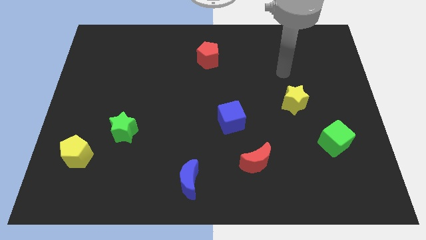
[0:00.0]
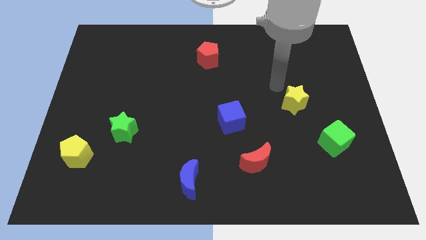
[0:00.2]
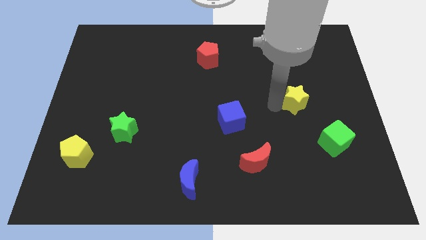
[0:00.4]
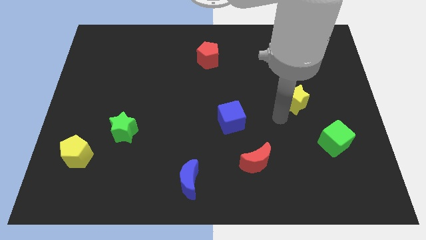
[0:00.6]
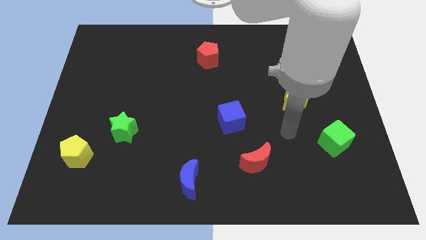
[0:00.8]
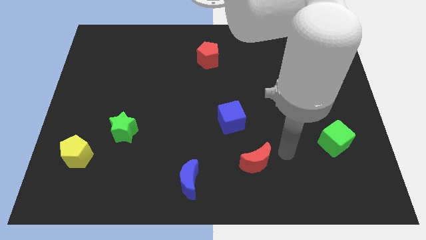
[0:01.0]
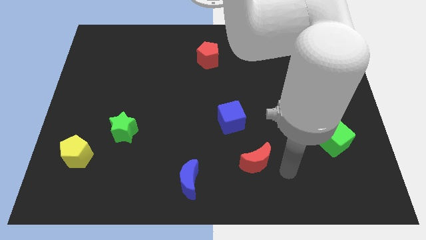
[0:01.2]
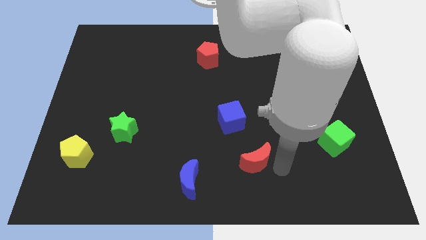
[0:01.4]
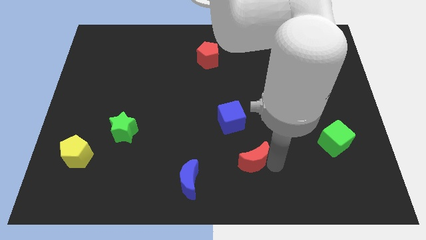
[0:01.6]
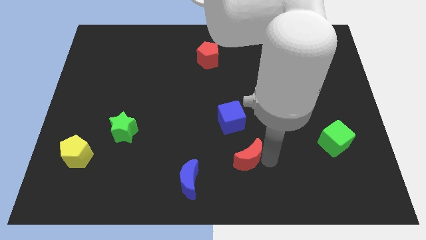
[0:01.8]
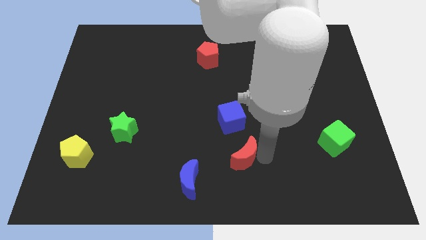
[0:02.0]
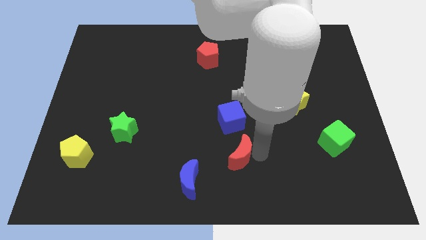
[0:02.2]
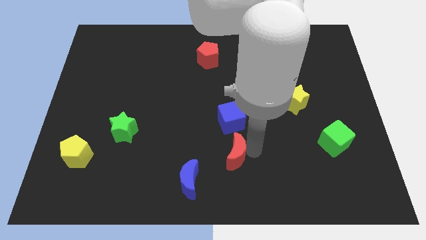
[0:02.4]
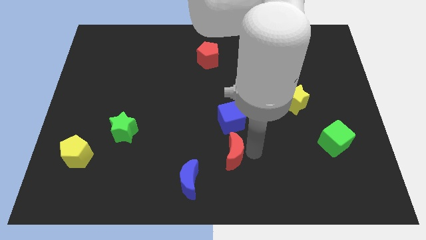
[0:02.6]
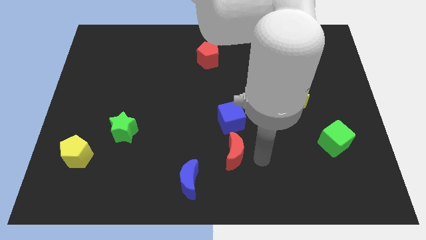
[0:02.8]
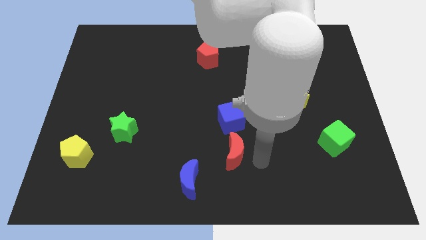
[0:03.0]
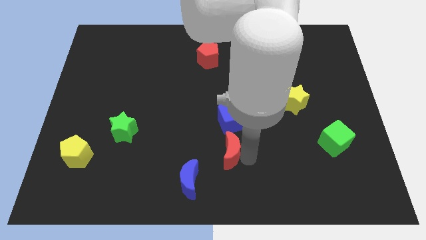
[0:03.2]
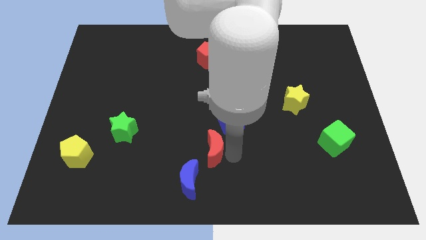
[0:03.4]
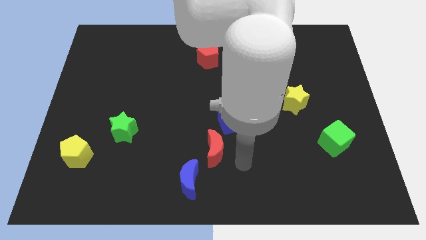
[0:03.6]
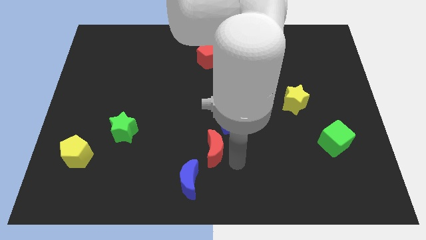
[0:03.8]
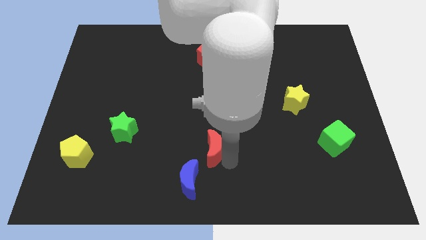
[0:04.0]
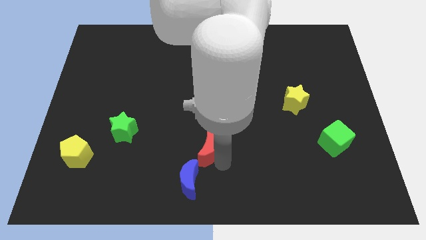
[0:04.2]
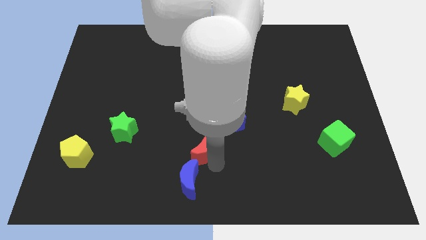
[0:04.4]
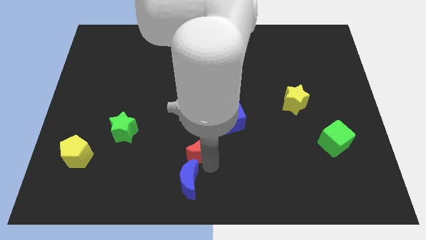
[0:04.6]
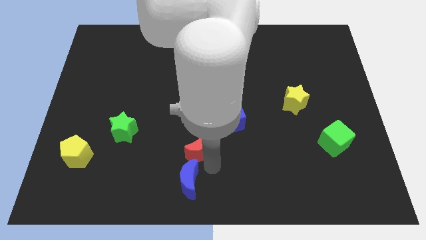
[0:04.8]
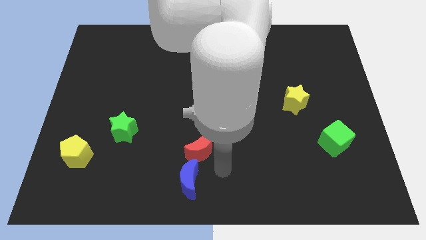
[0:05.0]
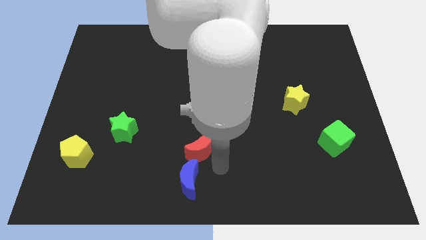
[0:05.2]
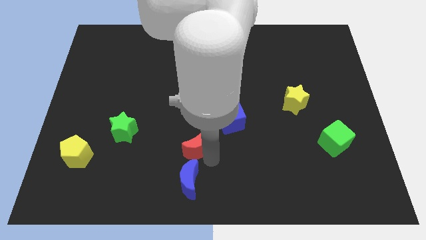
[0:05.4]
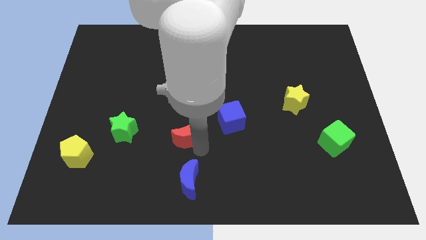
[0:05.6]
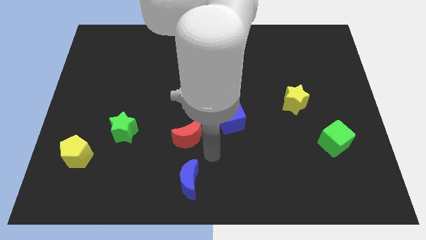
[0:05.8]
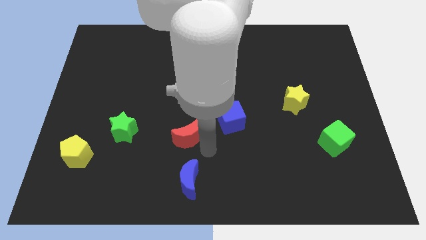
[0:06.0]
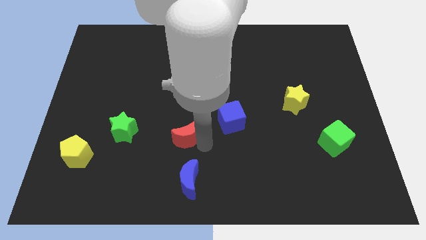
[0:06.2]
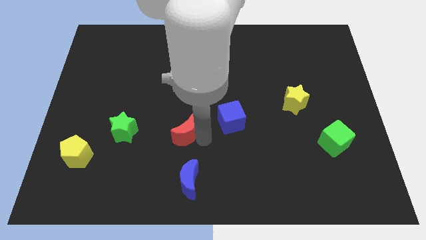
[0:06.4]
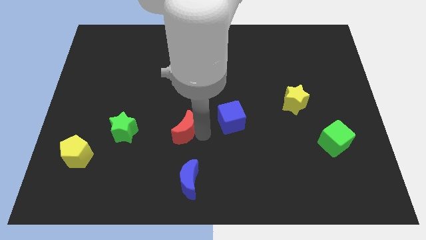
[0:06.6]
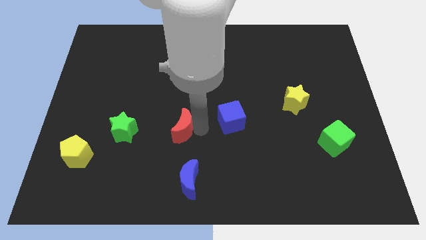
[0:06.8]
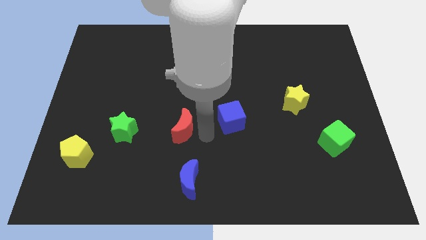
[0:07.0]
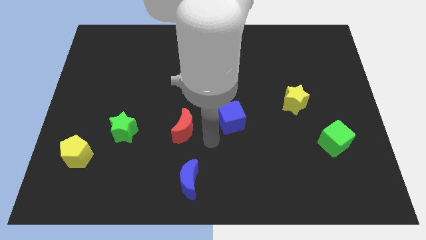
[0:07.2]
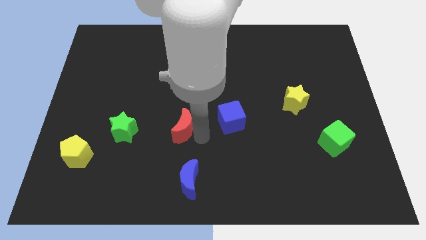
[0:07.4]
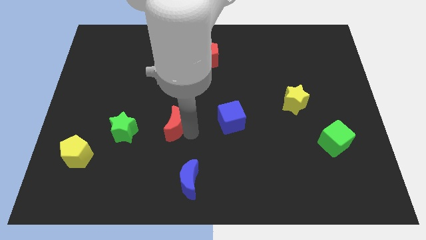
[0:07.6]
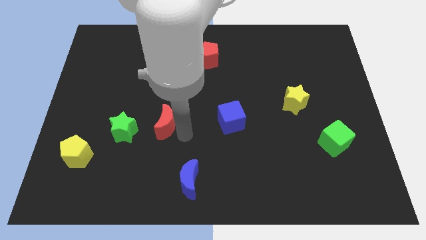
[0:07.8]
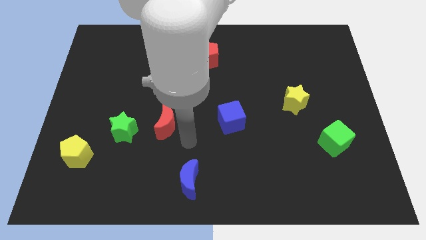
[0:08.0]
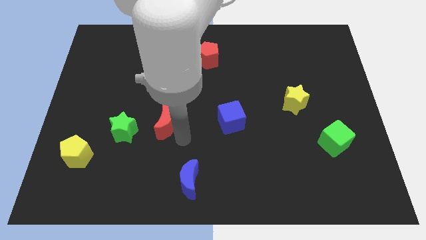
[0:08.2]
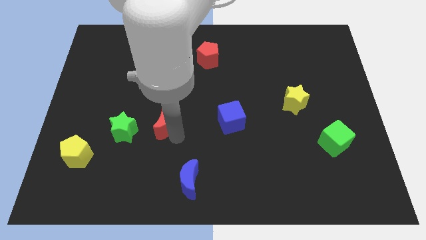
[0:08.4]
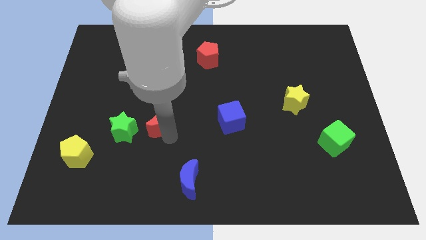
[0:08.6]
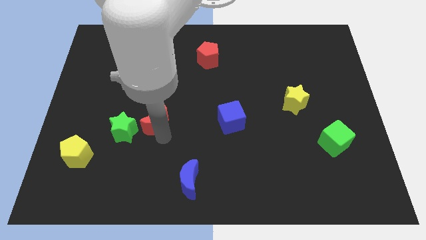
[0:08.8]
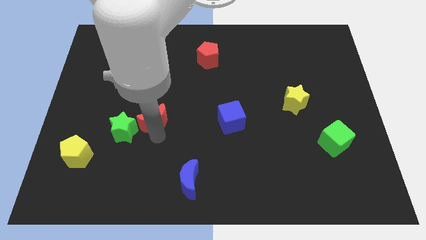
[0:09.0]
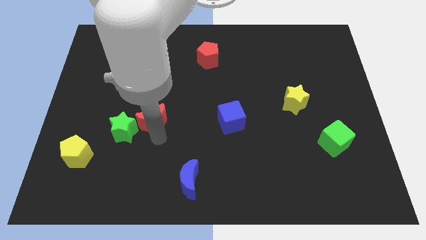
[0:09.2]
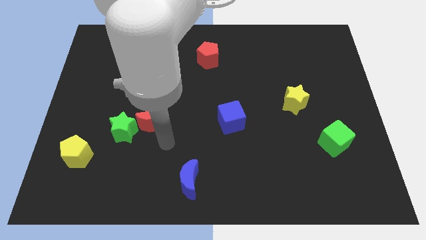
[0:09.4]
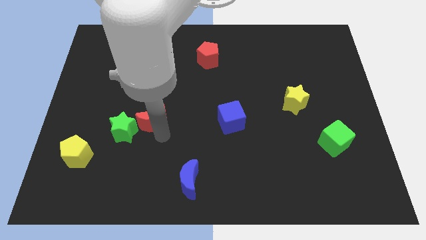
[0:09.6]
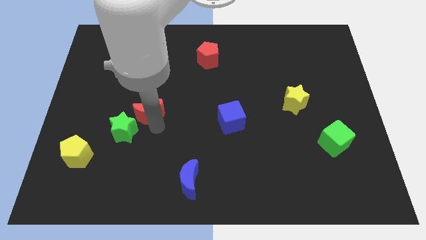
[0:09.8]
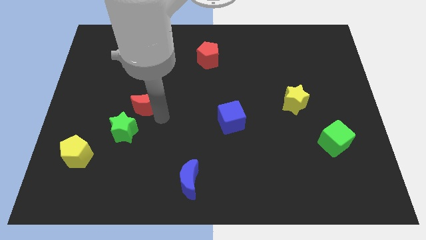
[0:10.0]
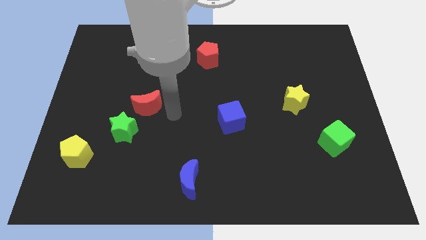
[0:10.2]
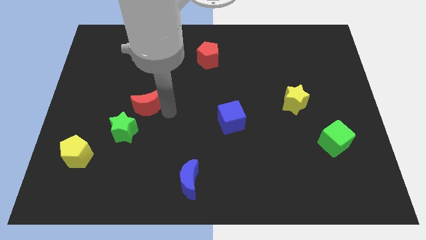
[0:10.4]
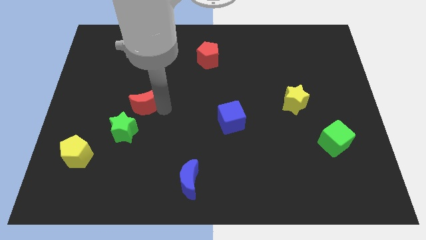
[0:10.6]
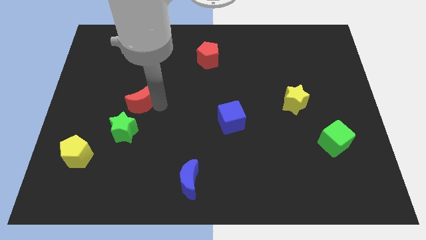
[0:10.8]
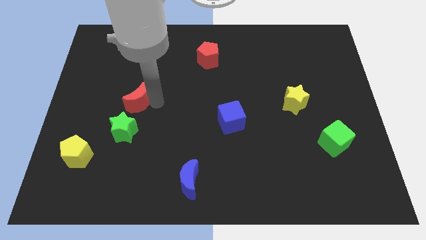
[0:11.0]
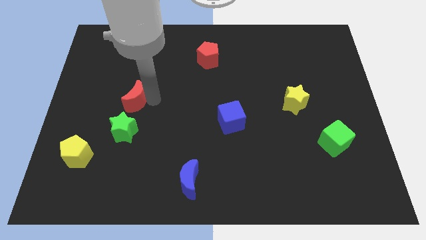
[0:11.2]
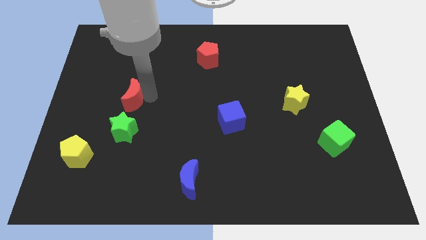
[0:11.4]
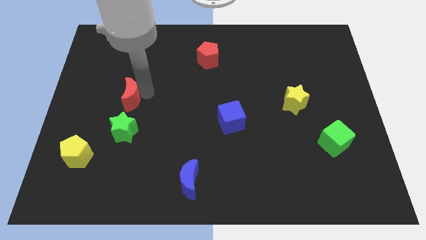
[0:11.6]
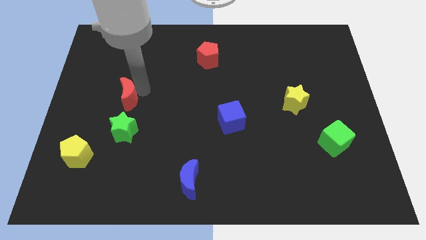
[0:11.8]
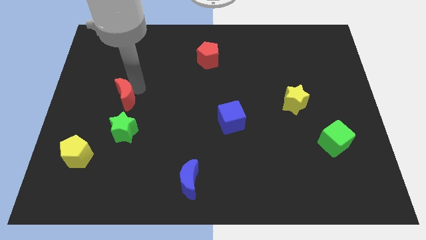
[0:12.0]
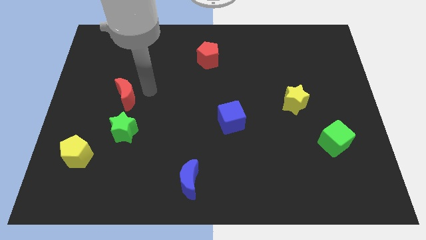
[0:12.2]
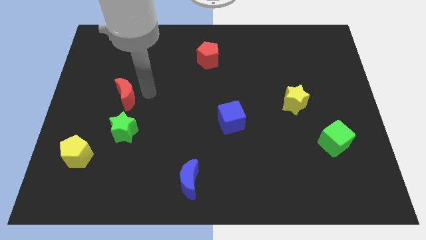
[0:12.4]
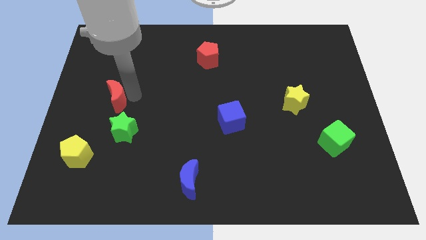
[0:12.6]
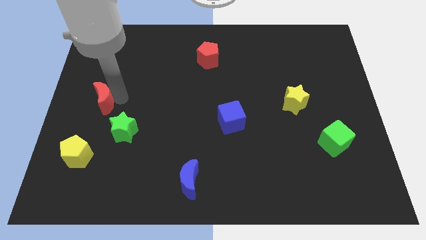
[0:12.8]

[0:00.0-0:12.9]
put the red moon to the left side of the board
